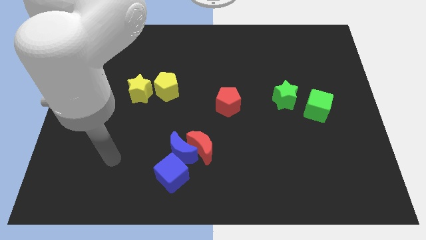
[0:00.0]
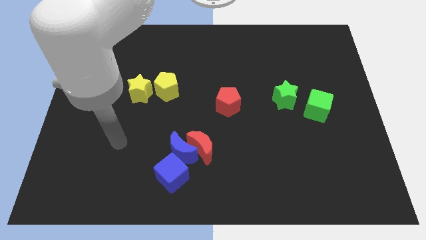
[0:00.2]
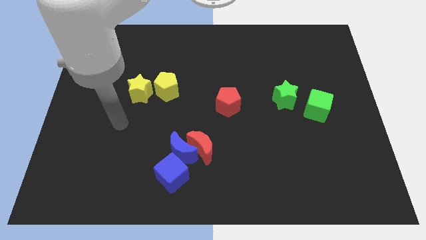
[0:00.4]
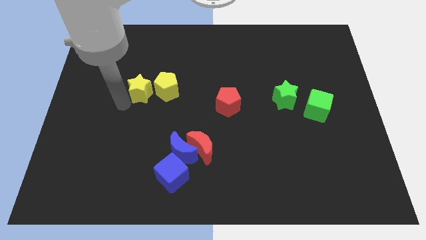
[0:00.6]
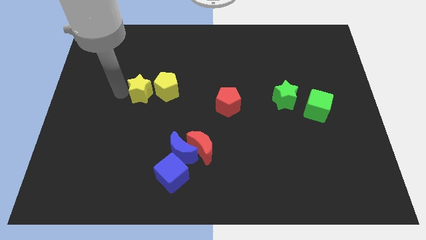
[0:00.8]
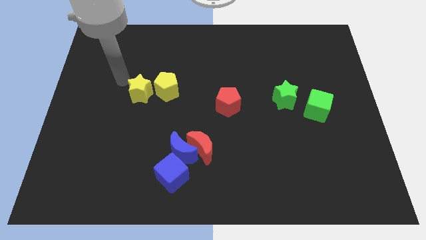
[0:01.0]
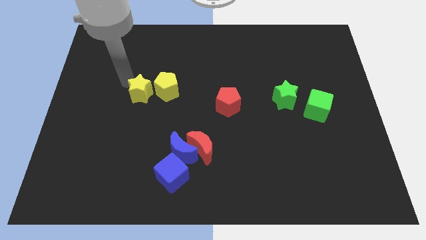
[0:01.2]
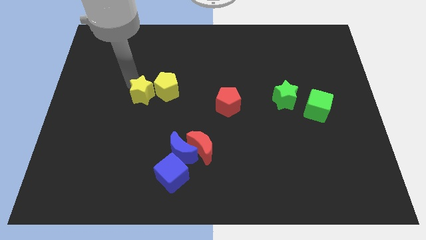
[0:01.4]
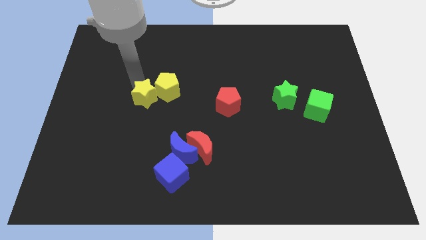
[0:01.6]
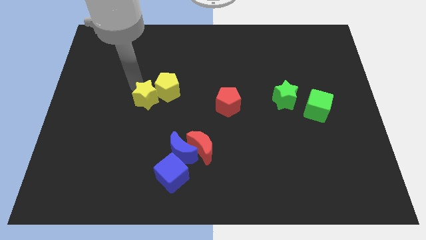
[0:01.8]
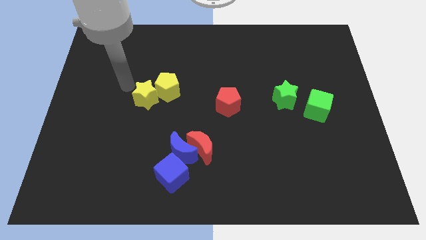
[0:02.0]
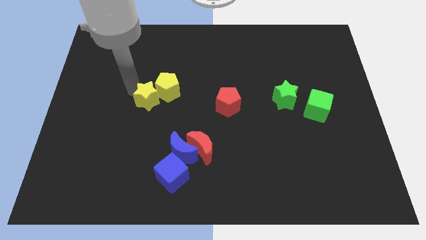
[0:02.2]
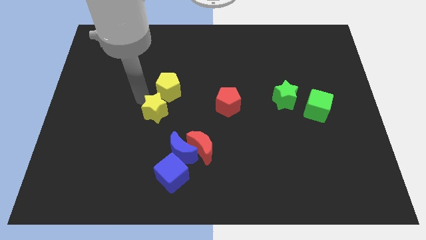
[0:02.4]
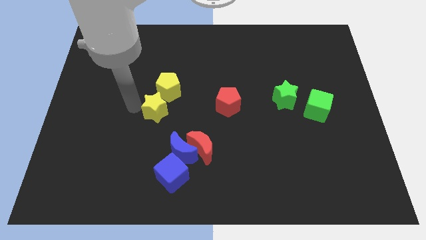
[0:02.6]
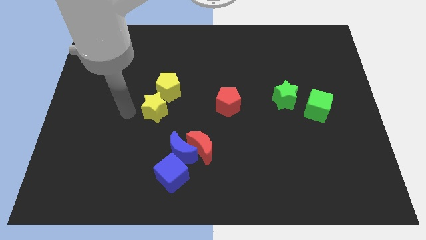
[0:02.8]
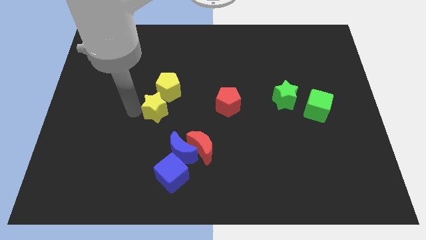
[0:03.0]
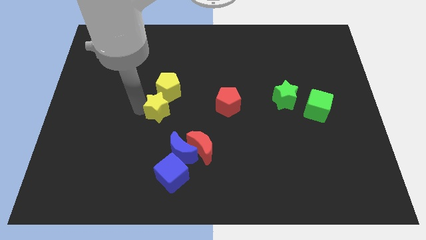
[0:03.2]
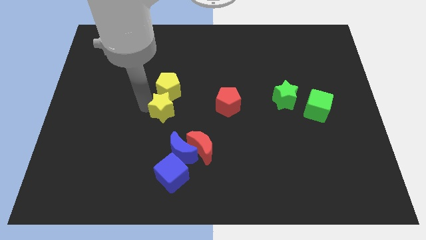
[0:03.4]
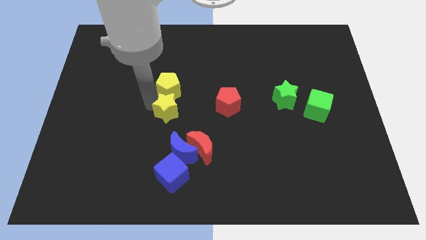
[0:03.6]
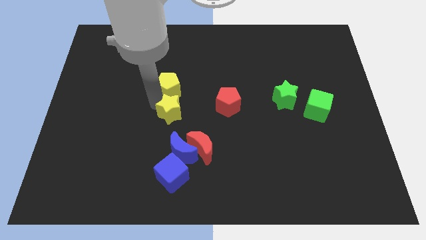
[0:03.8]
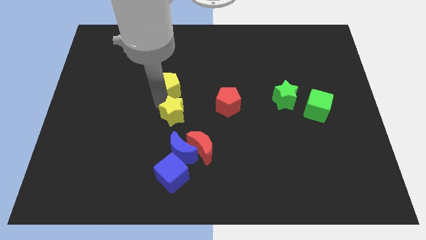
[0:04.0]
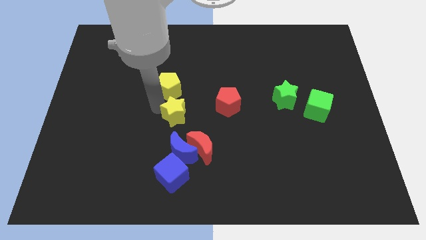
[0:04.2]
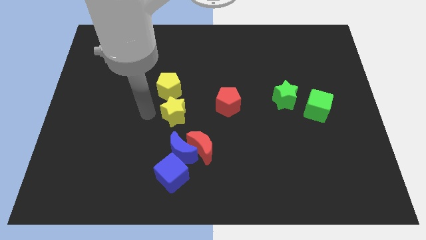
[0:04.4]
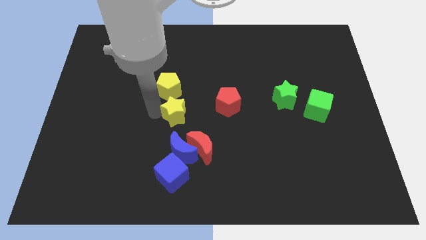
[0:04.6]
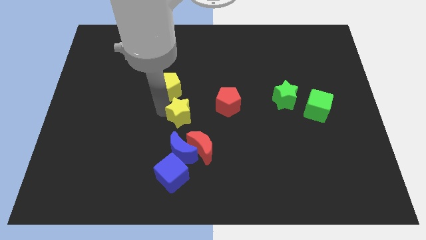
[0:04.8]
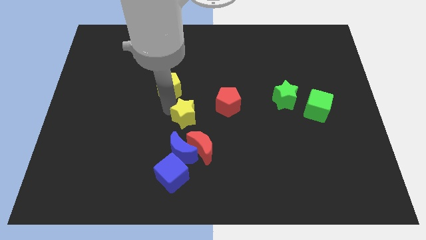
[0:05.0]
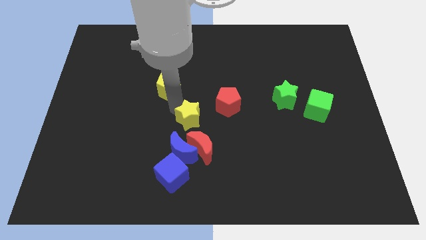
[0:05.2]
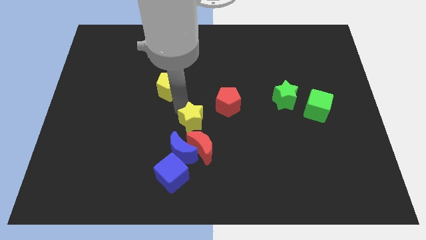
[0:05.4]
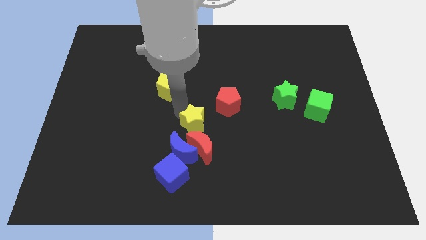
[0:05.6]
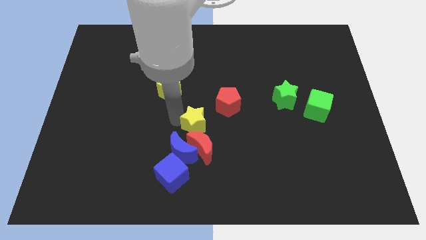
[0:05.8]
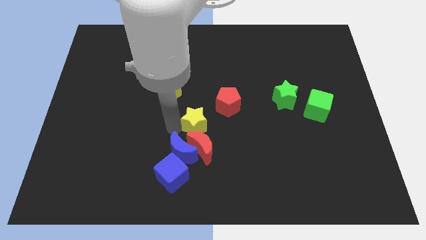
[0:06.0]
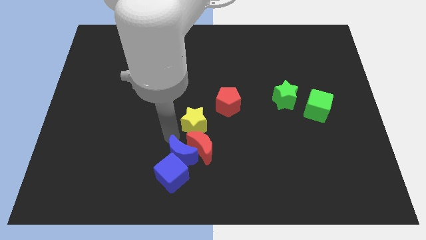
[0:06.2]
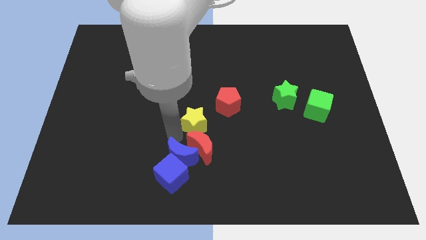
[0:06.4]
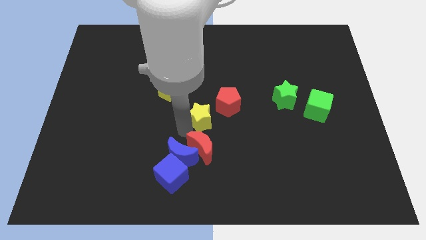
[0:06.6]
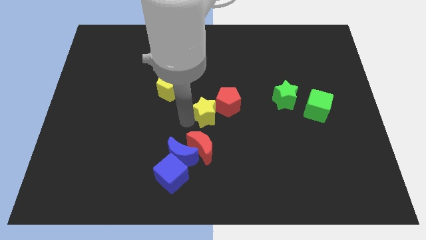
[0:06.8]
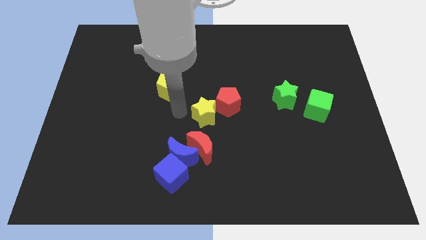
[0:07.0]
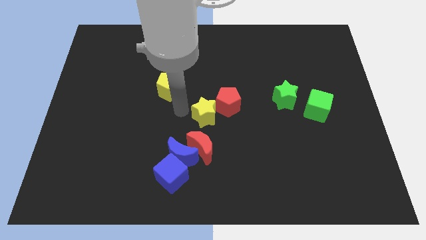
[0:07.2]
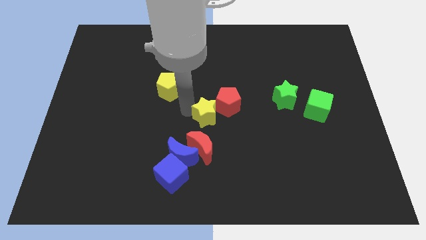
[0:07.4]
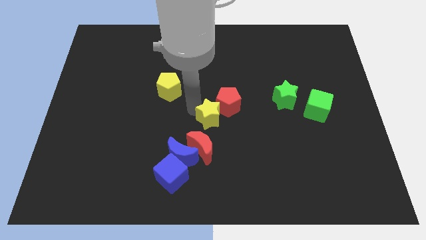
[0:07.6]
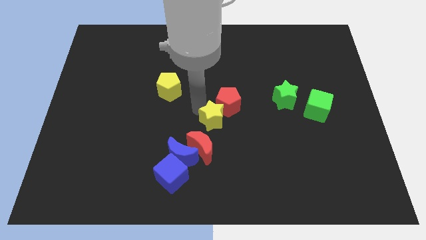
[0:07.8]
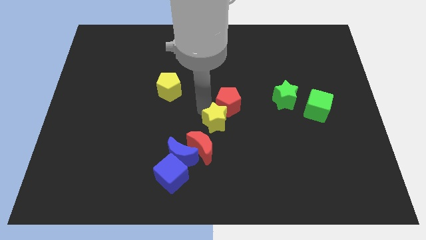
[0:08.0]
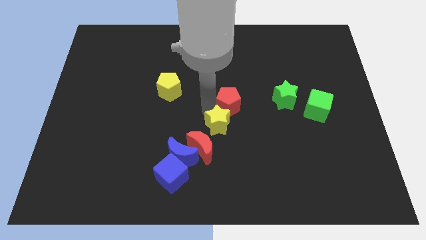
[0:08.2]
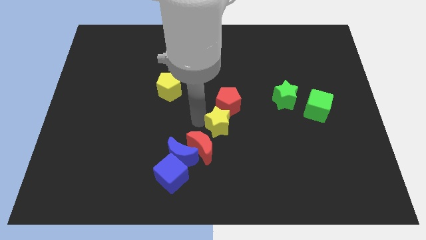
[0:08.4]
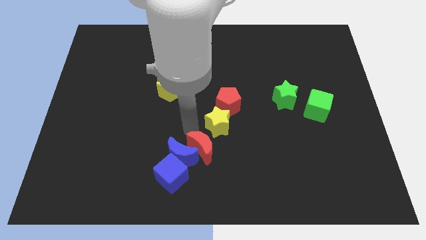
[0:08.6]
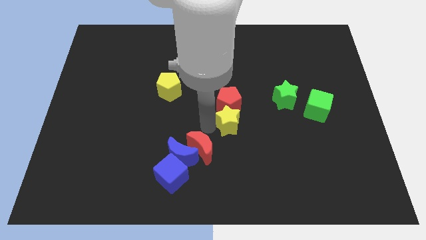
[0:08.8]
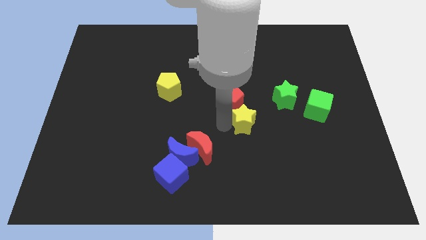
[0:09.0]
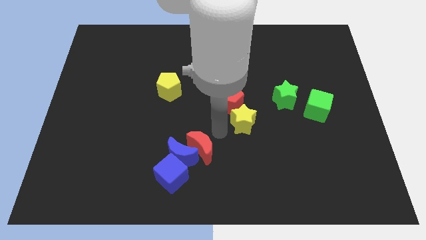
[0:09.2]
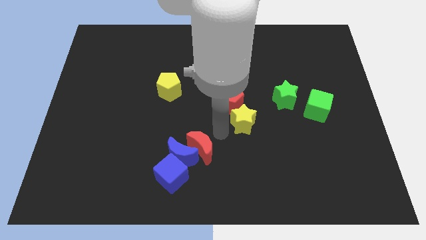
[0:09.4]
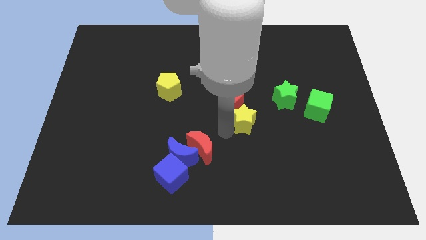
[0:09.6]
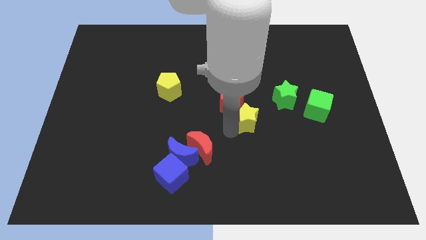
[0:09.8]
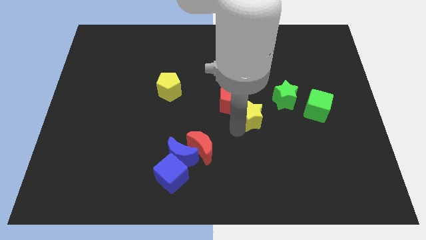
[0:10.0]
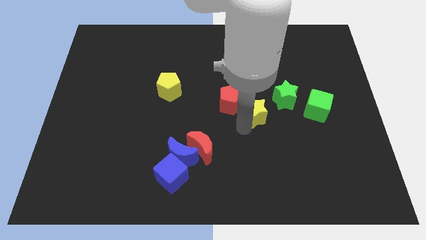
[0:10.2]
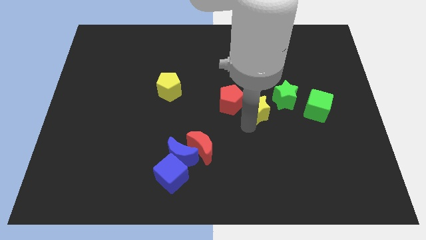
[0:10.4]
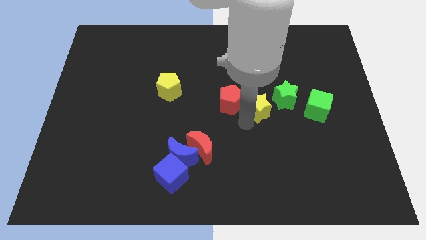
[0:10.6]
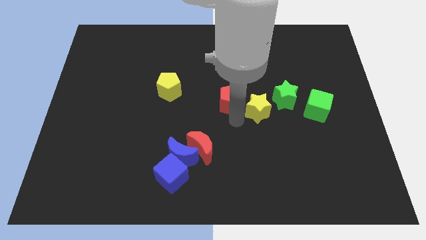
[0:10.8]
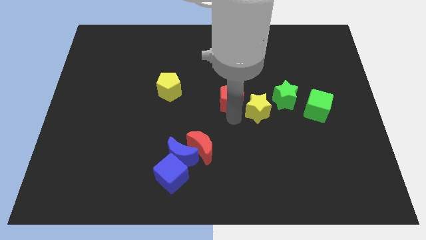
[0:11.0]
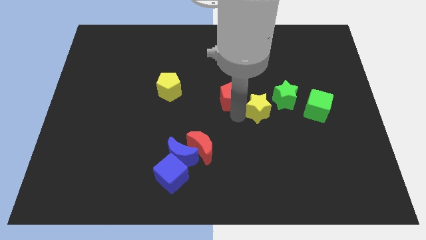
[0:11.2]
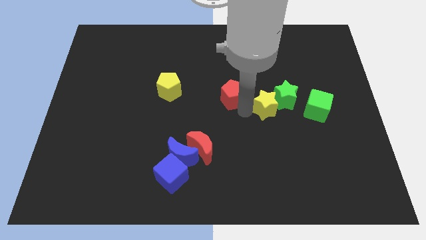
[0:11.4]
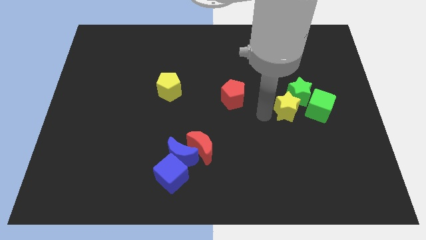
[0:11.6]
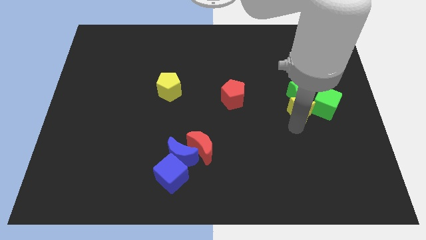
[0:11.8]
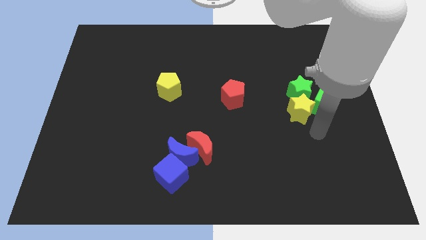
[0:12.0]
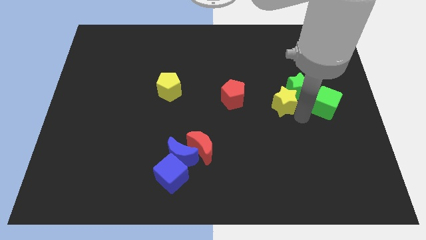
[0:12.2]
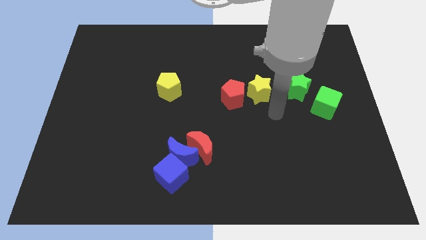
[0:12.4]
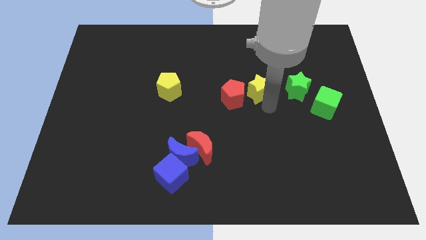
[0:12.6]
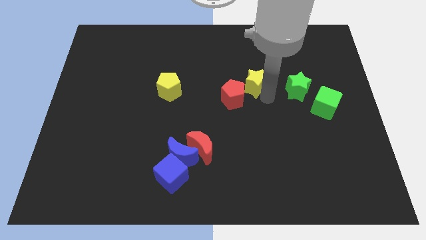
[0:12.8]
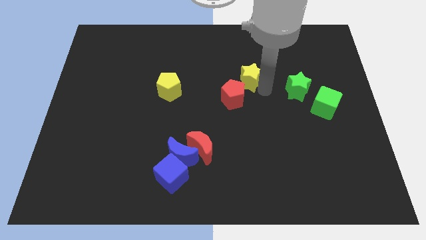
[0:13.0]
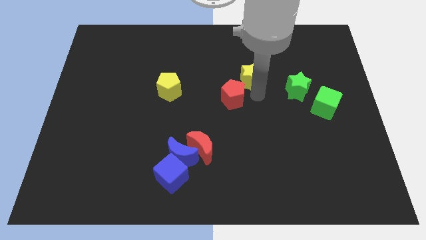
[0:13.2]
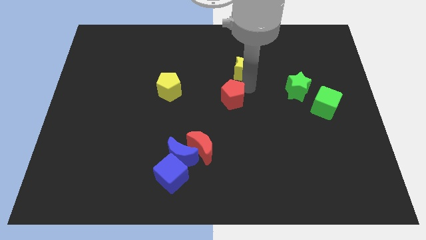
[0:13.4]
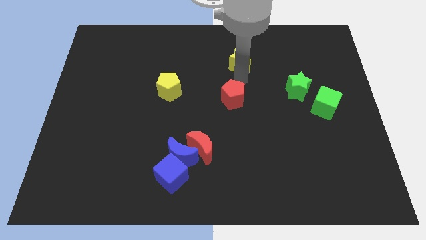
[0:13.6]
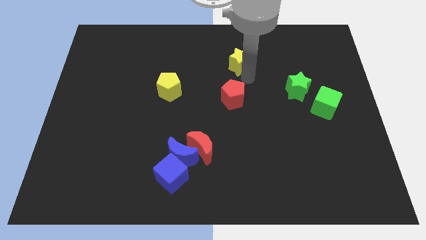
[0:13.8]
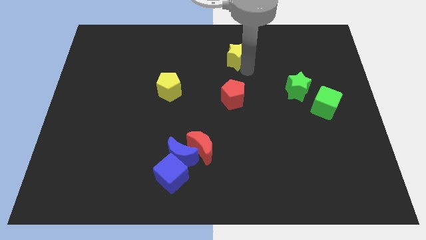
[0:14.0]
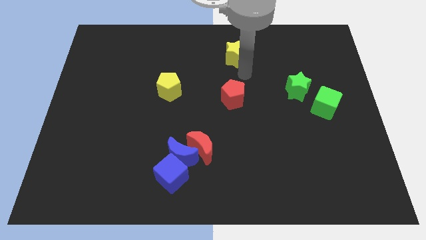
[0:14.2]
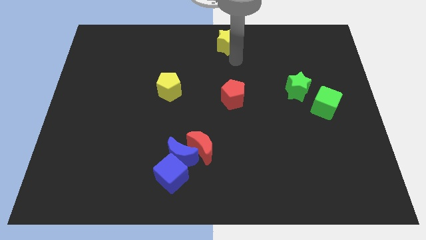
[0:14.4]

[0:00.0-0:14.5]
slide the yellow star to the towards your base
